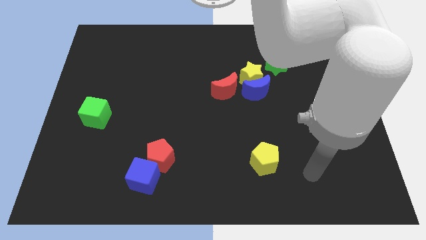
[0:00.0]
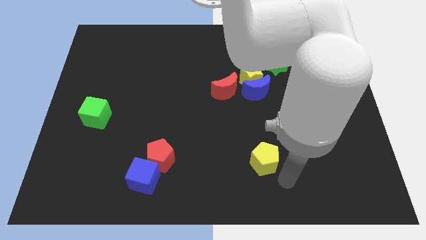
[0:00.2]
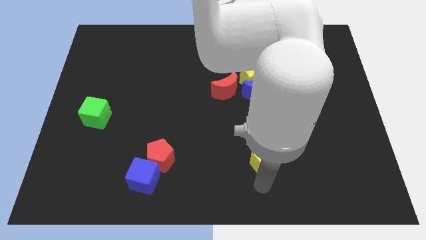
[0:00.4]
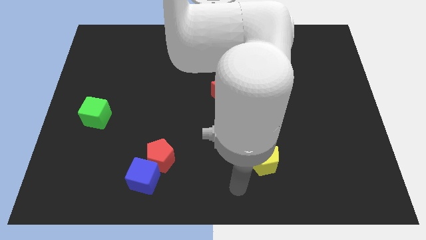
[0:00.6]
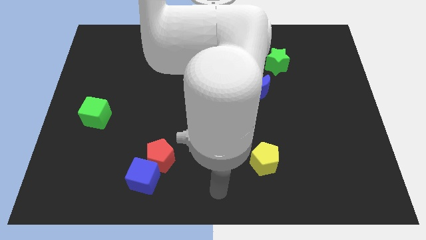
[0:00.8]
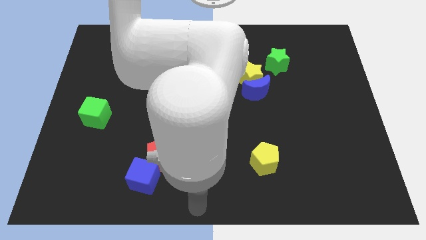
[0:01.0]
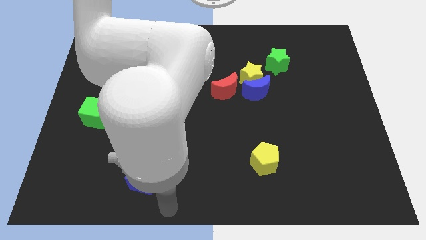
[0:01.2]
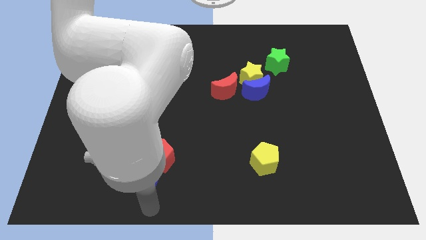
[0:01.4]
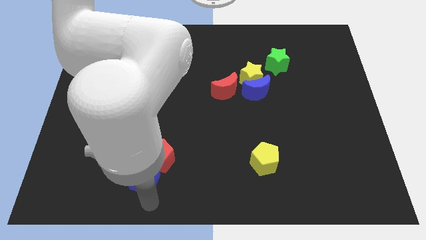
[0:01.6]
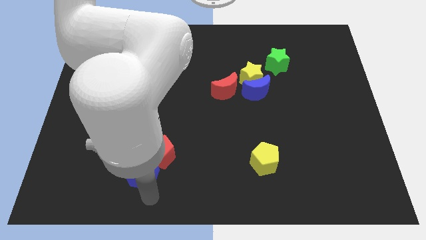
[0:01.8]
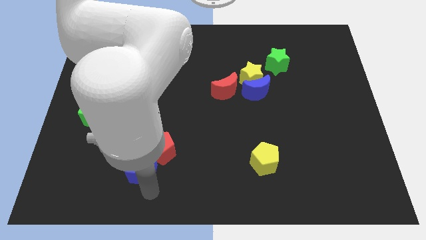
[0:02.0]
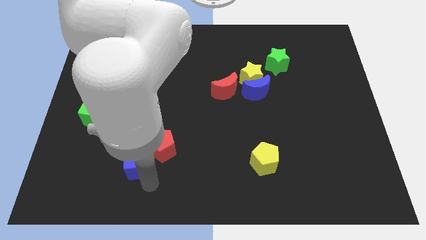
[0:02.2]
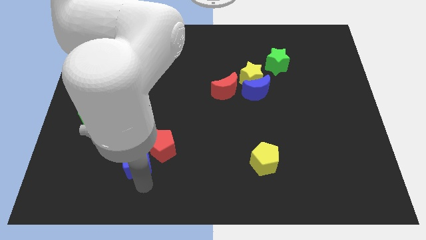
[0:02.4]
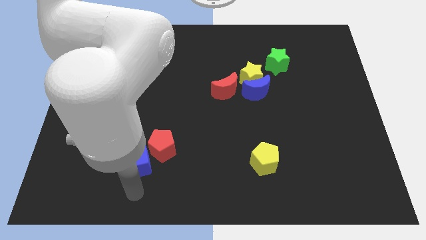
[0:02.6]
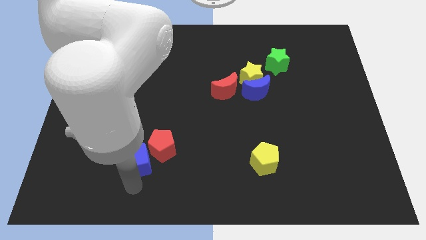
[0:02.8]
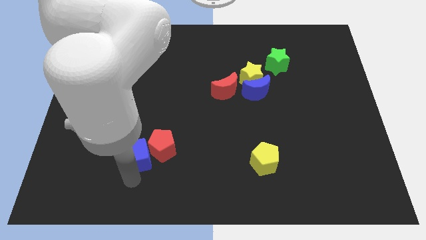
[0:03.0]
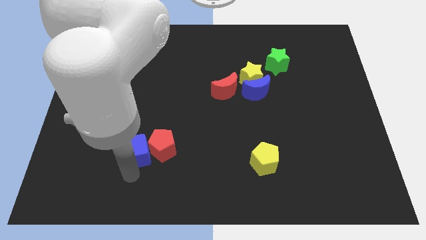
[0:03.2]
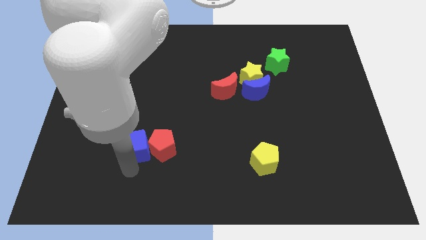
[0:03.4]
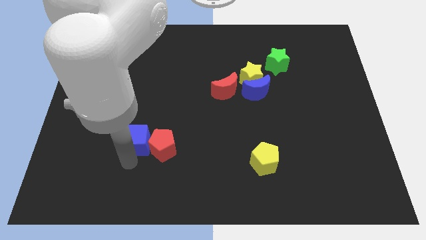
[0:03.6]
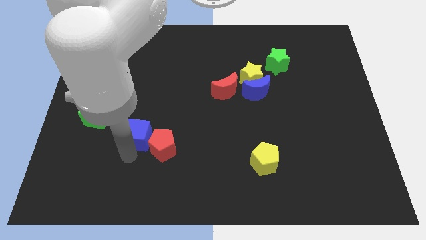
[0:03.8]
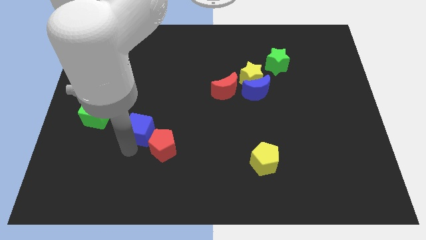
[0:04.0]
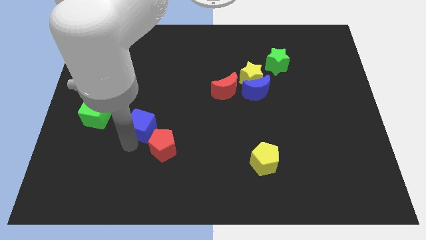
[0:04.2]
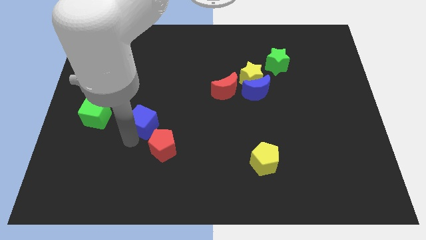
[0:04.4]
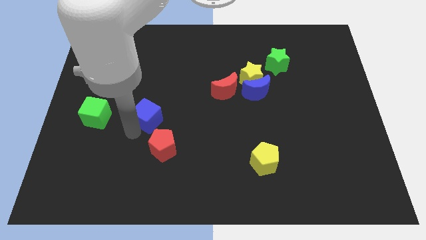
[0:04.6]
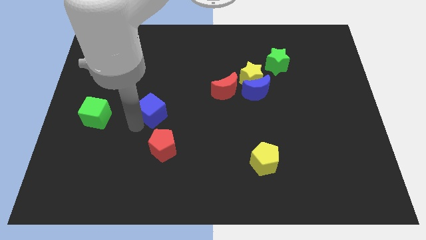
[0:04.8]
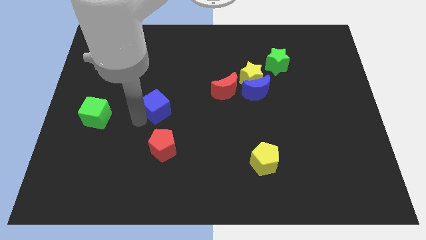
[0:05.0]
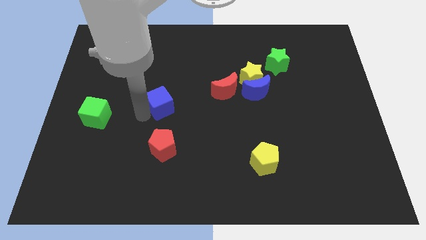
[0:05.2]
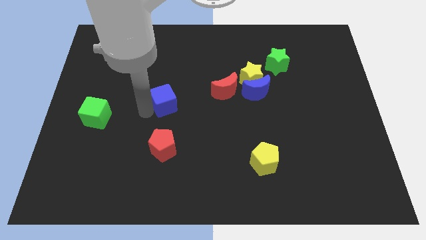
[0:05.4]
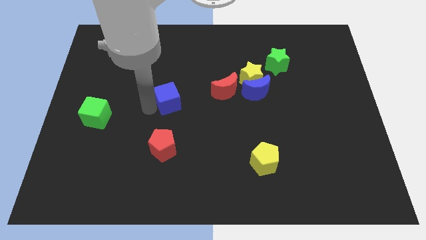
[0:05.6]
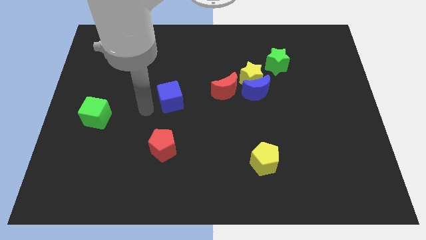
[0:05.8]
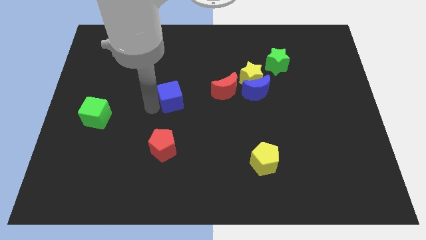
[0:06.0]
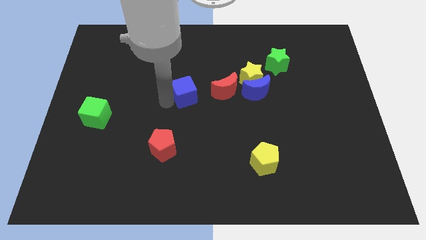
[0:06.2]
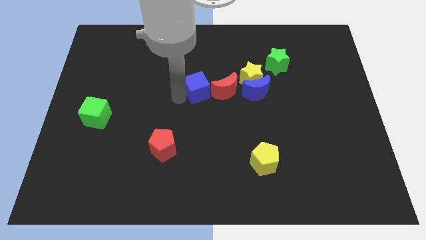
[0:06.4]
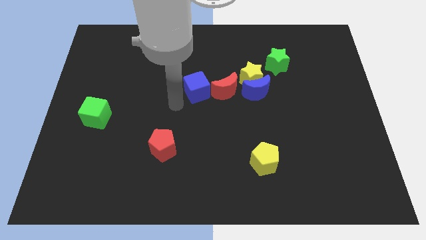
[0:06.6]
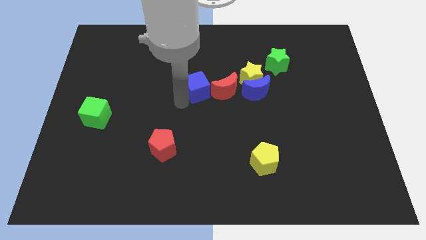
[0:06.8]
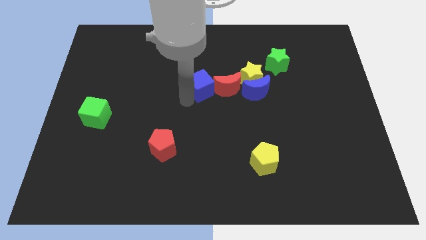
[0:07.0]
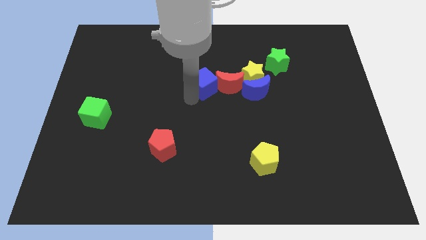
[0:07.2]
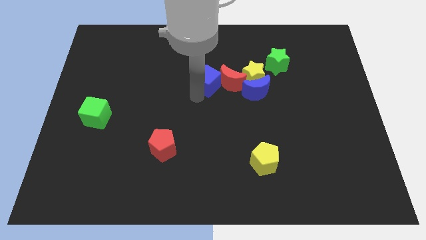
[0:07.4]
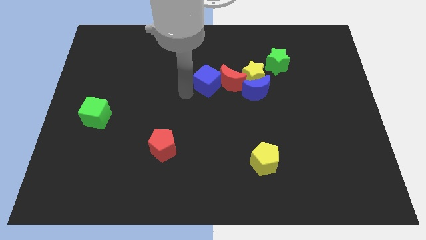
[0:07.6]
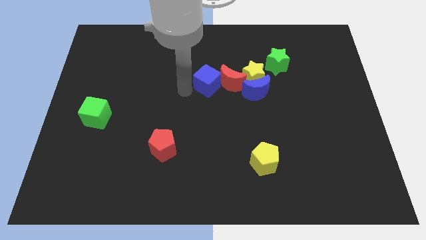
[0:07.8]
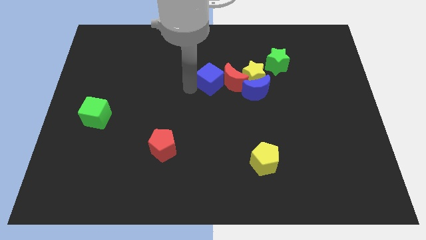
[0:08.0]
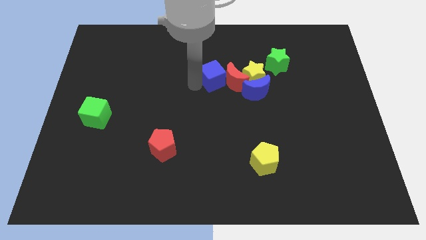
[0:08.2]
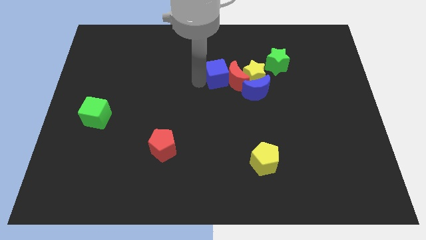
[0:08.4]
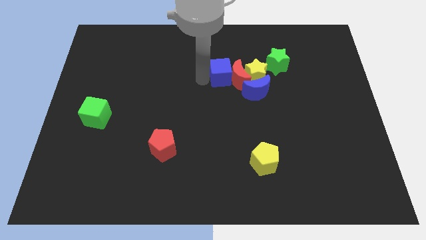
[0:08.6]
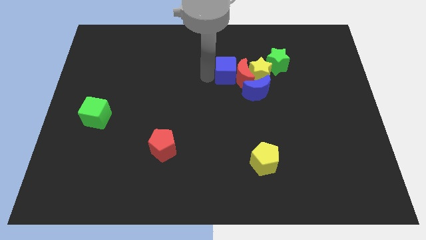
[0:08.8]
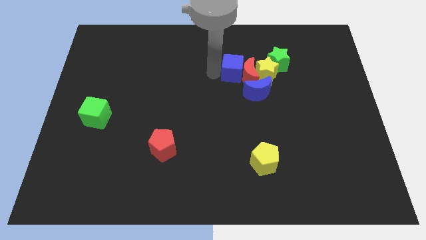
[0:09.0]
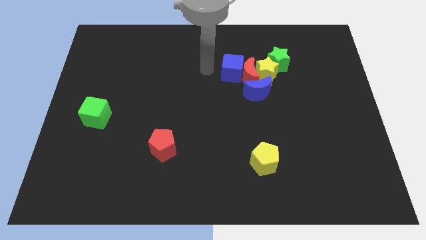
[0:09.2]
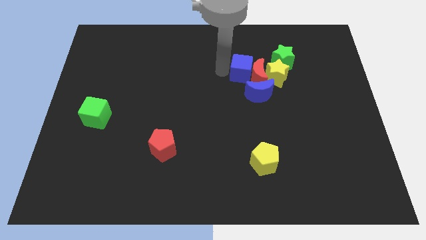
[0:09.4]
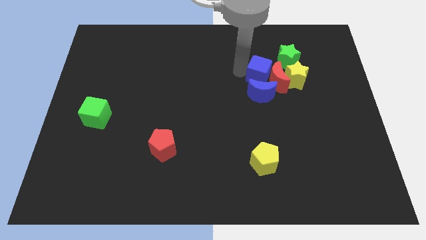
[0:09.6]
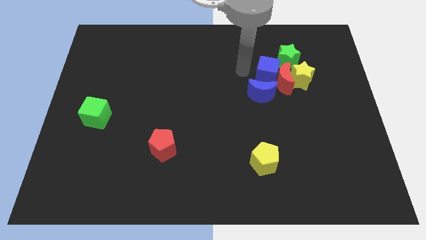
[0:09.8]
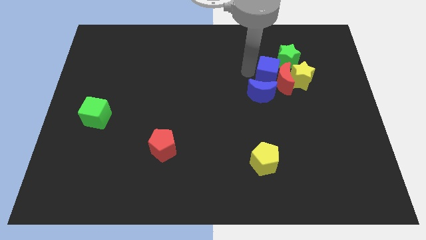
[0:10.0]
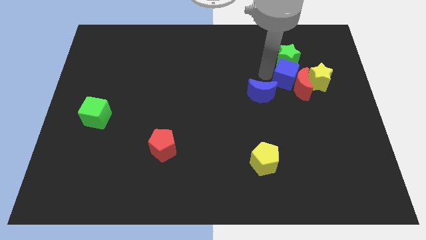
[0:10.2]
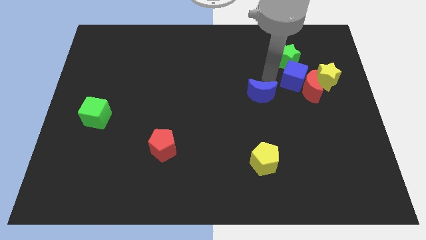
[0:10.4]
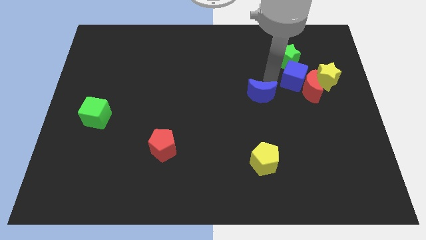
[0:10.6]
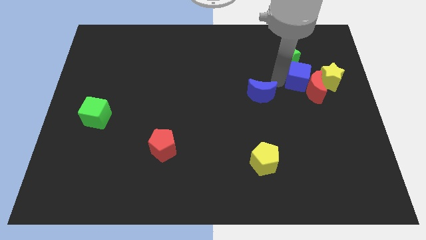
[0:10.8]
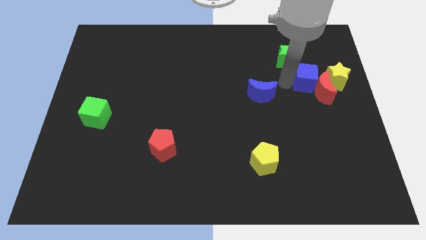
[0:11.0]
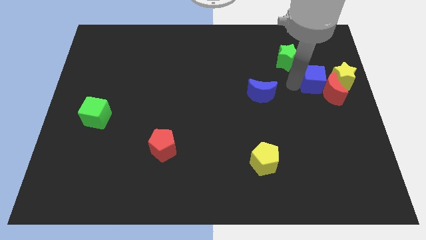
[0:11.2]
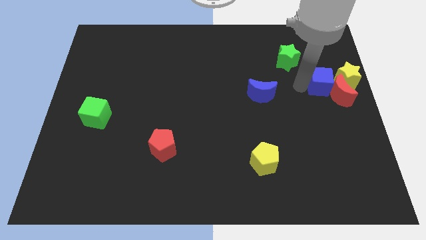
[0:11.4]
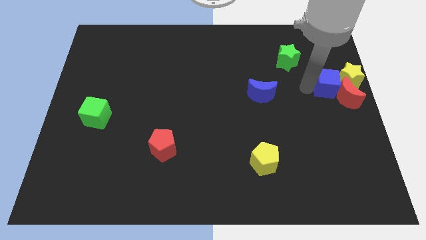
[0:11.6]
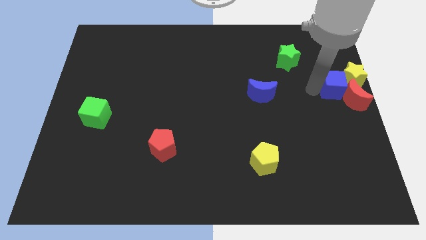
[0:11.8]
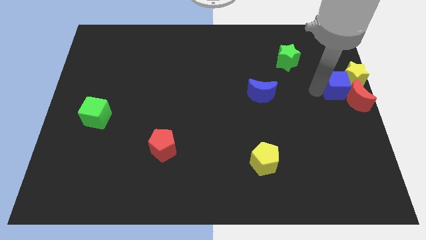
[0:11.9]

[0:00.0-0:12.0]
move the blue cube close to the yellow star

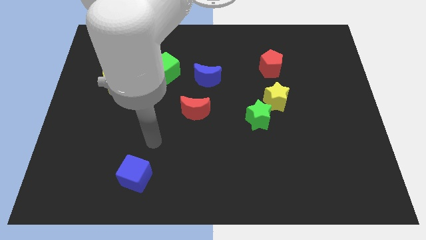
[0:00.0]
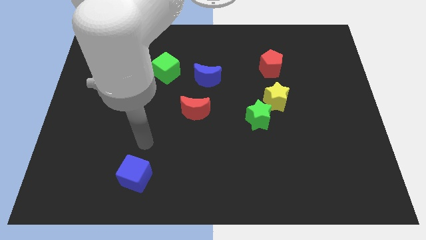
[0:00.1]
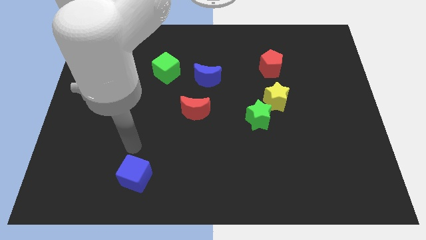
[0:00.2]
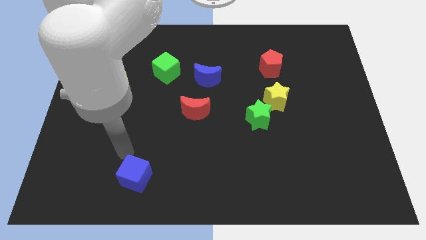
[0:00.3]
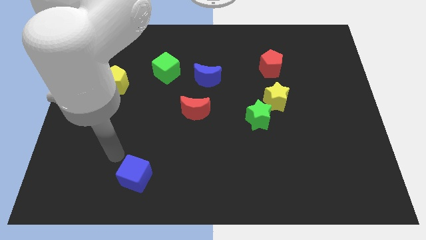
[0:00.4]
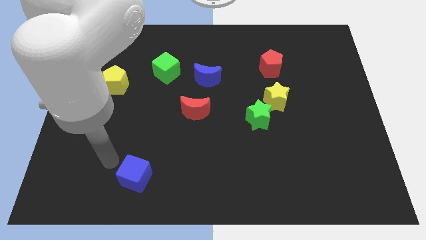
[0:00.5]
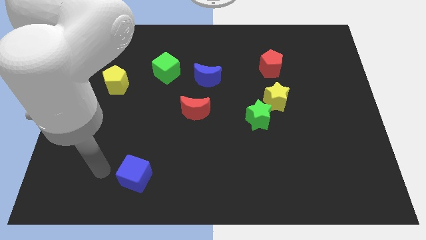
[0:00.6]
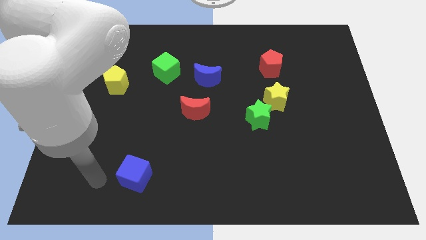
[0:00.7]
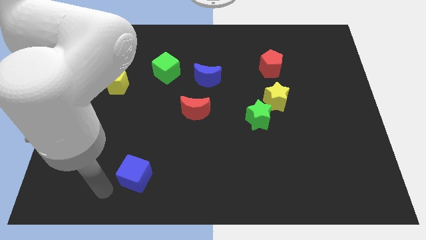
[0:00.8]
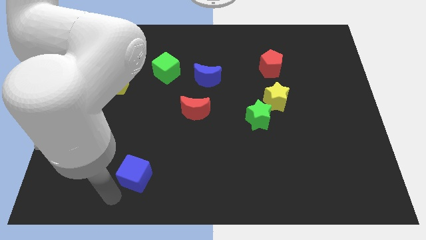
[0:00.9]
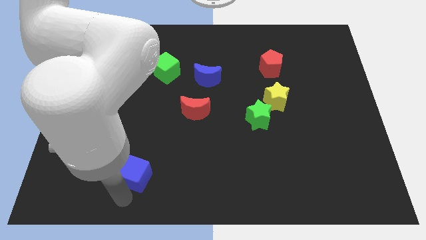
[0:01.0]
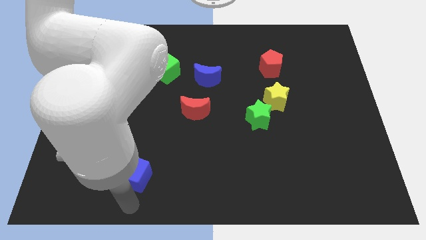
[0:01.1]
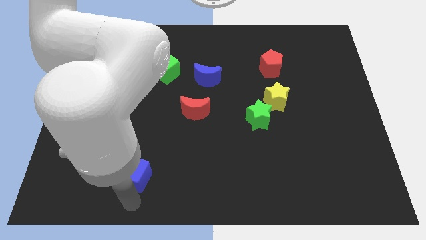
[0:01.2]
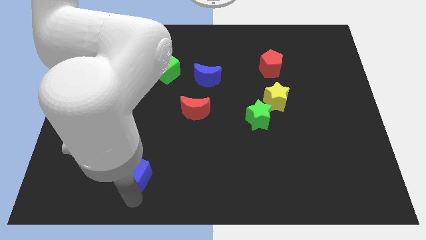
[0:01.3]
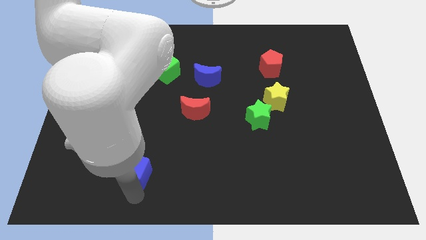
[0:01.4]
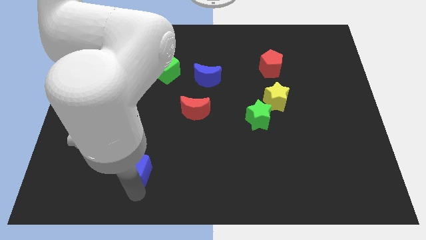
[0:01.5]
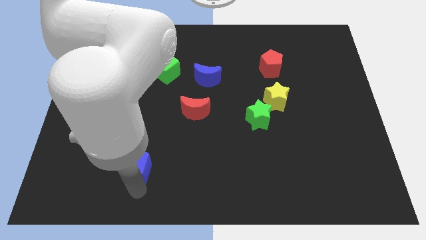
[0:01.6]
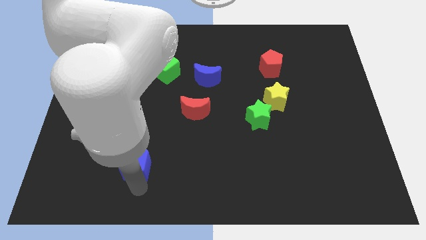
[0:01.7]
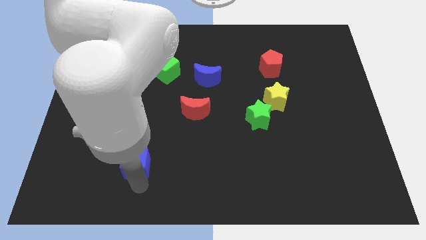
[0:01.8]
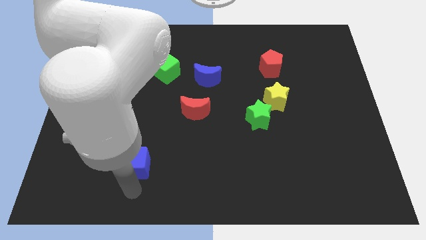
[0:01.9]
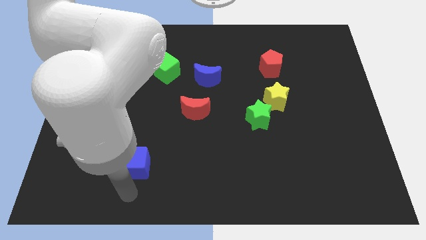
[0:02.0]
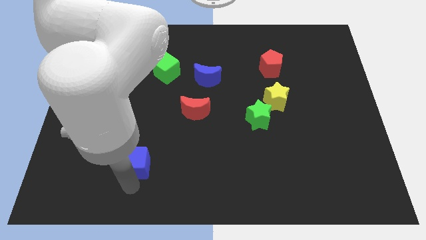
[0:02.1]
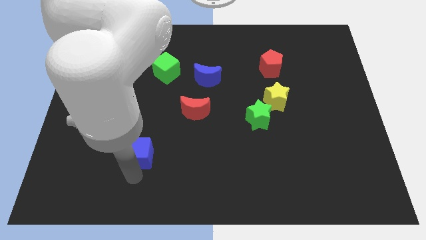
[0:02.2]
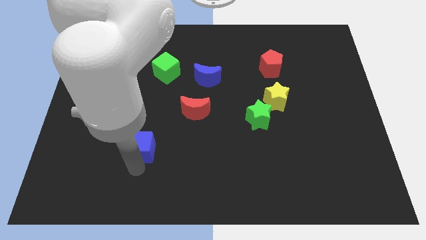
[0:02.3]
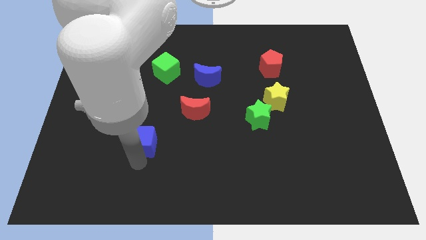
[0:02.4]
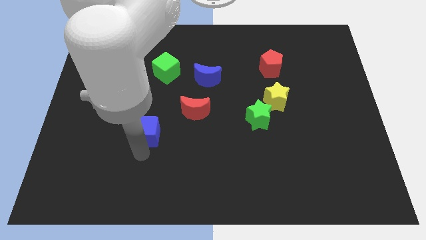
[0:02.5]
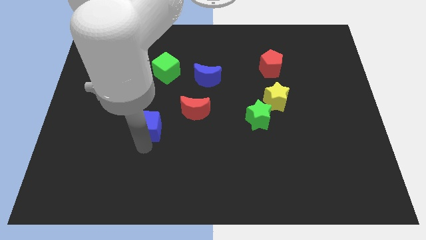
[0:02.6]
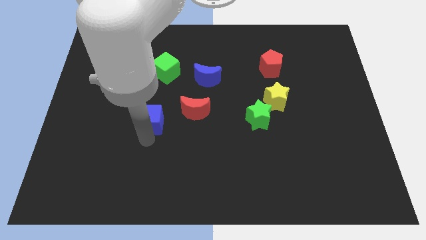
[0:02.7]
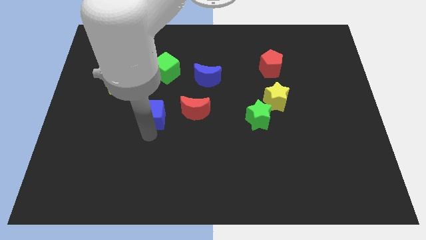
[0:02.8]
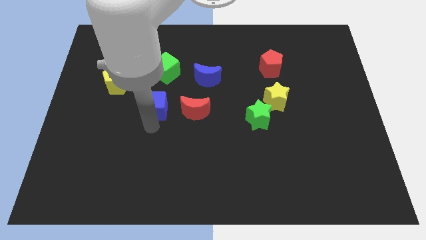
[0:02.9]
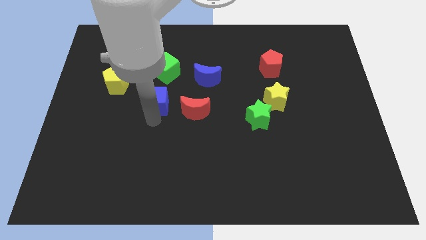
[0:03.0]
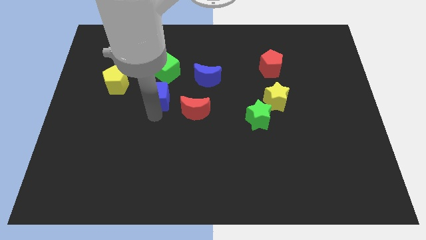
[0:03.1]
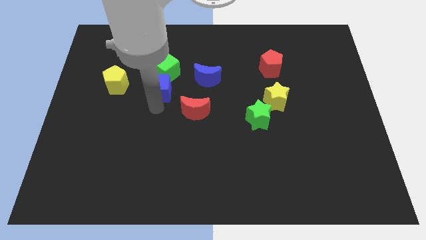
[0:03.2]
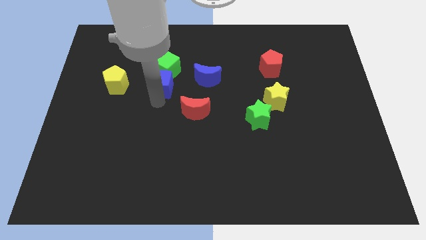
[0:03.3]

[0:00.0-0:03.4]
slide the blue cube towards the green cube
